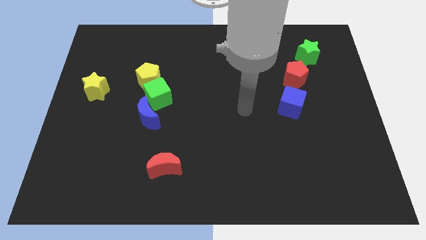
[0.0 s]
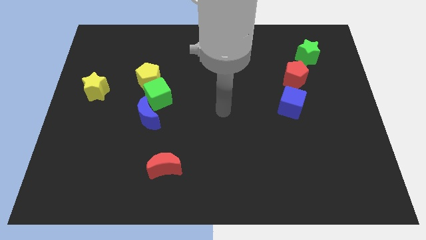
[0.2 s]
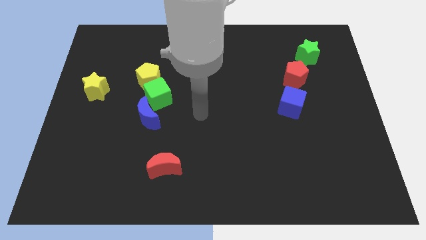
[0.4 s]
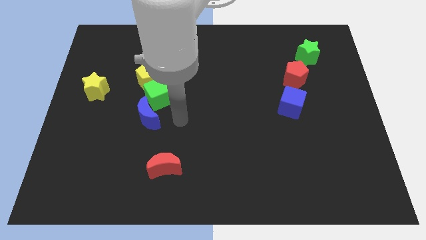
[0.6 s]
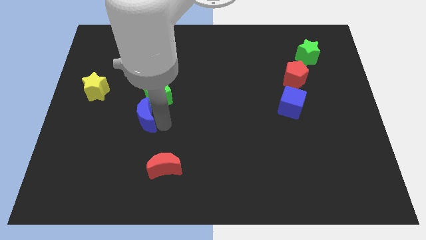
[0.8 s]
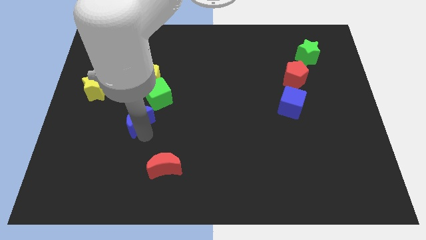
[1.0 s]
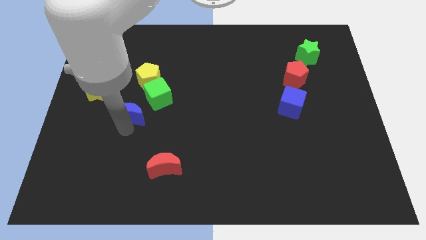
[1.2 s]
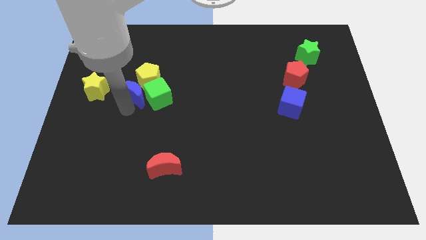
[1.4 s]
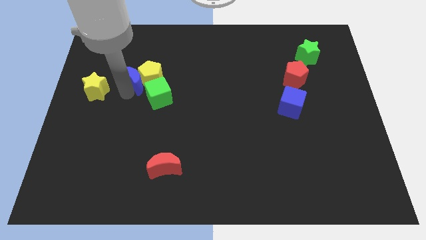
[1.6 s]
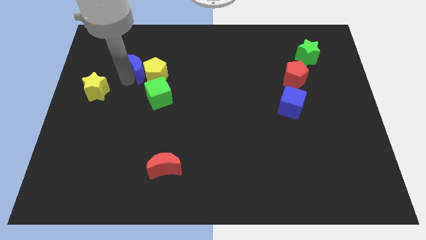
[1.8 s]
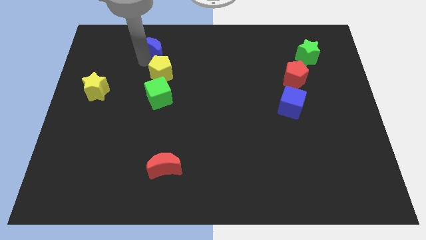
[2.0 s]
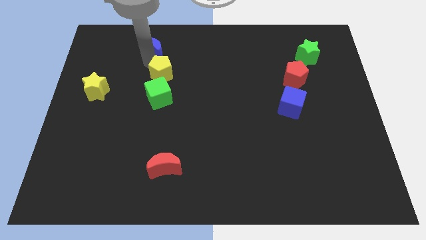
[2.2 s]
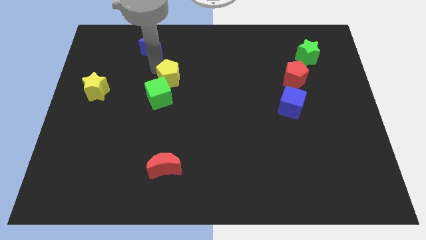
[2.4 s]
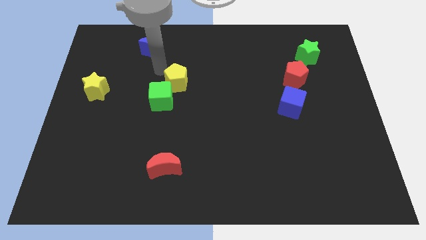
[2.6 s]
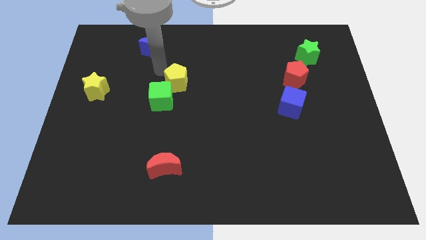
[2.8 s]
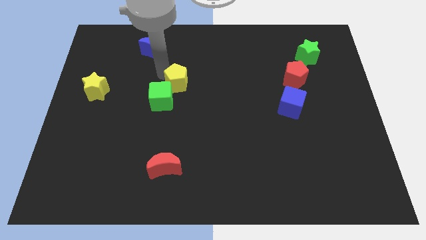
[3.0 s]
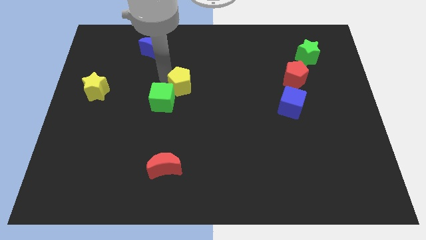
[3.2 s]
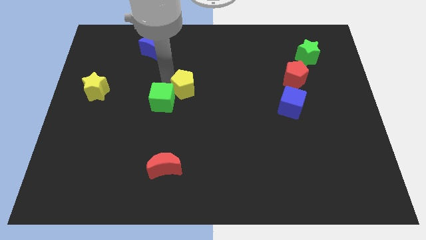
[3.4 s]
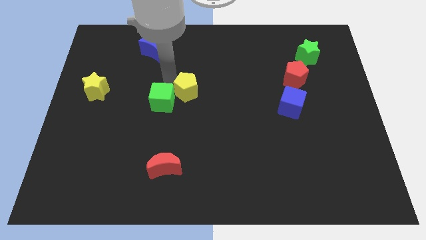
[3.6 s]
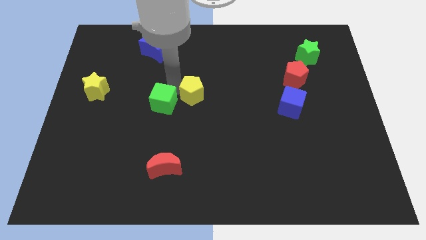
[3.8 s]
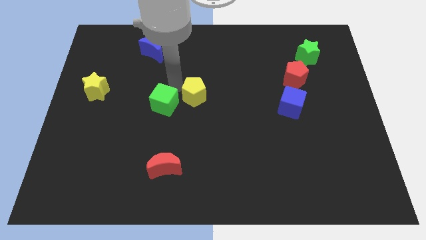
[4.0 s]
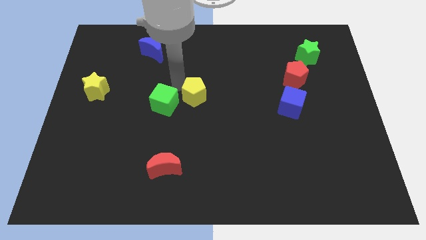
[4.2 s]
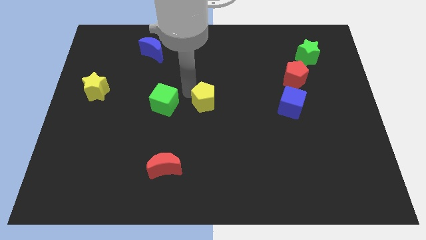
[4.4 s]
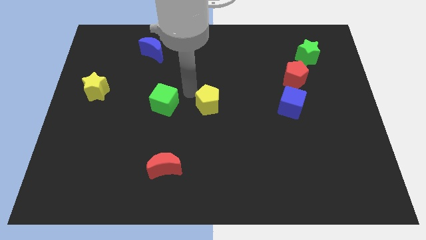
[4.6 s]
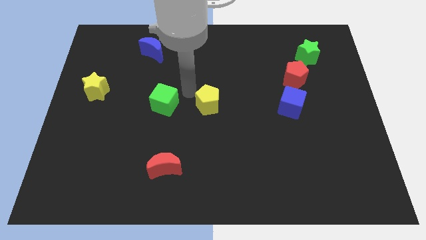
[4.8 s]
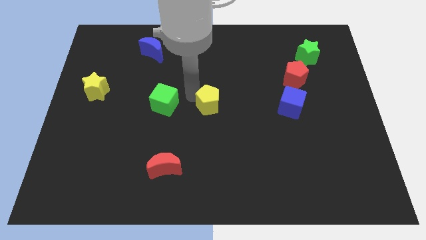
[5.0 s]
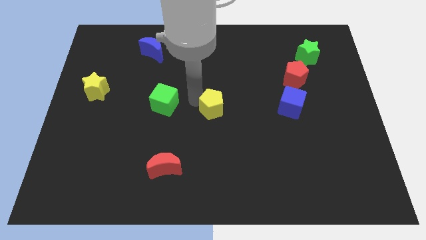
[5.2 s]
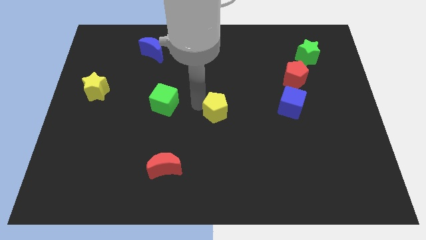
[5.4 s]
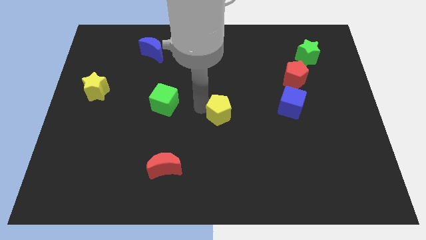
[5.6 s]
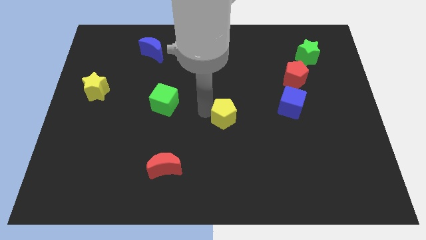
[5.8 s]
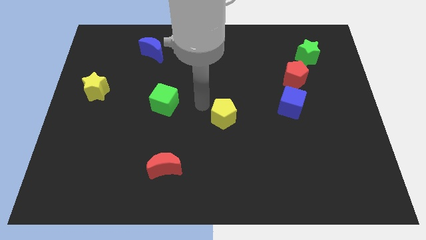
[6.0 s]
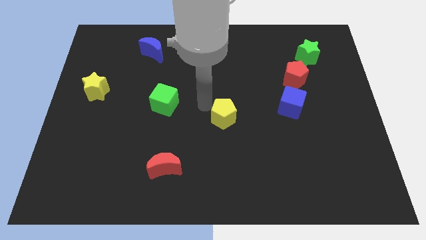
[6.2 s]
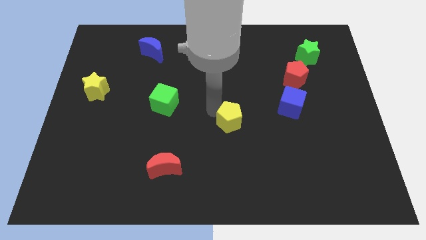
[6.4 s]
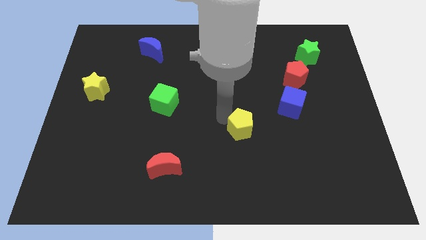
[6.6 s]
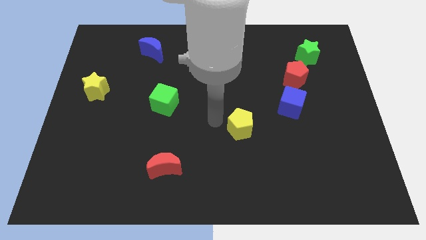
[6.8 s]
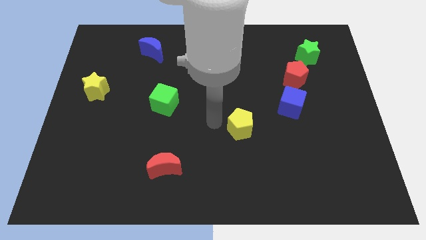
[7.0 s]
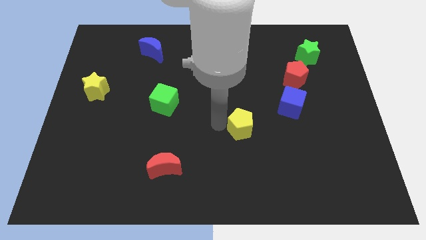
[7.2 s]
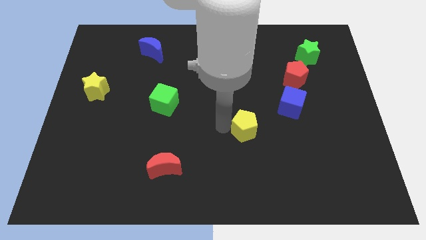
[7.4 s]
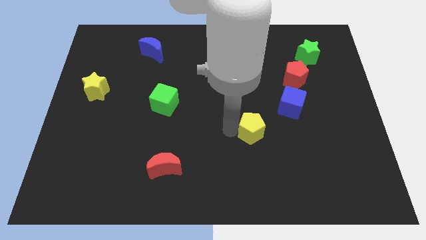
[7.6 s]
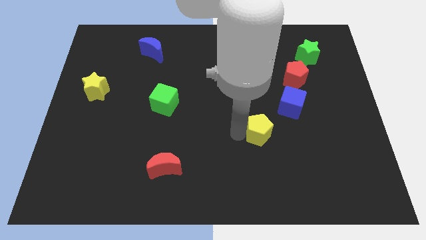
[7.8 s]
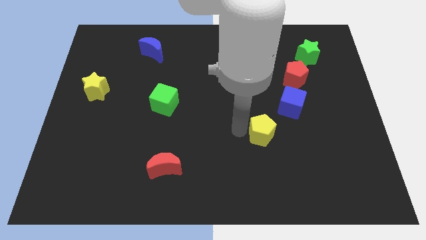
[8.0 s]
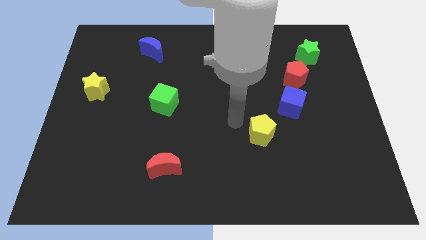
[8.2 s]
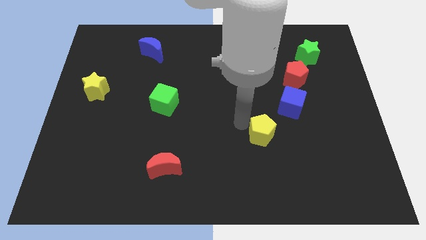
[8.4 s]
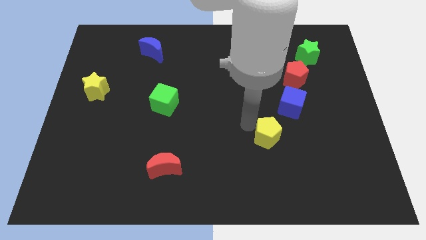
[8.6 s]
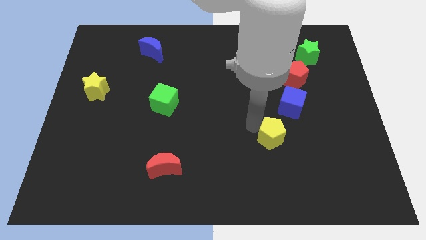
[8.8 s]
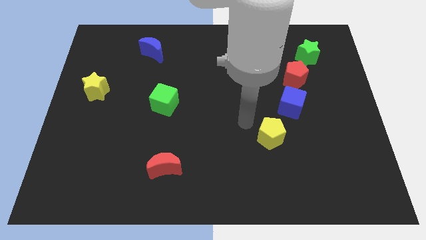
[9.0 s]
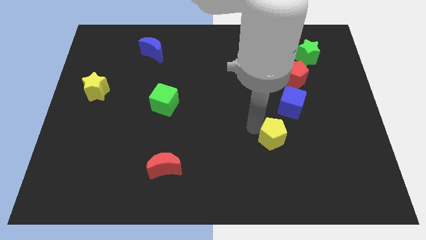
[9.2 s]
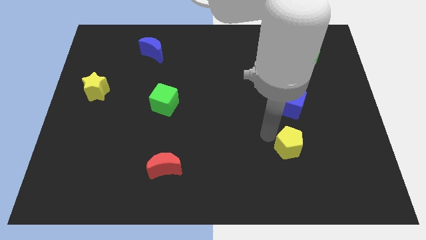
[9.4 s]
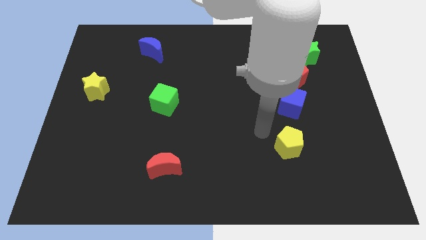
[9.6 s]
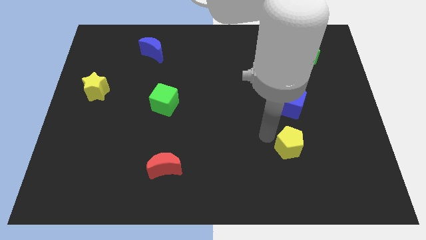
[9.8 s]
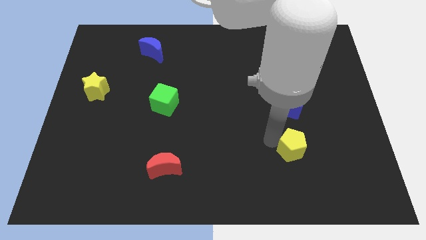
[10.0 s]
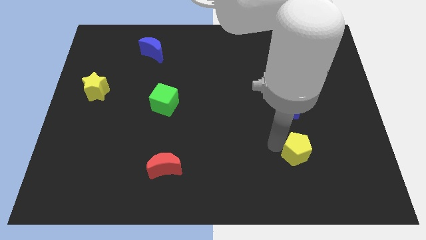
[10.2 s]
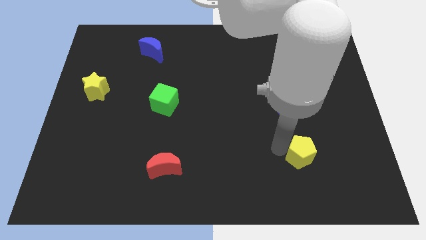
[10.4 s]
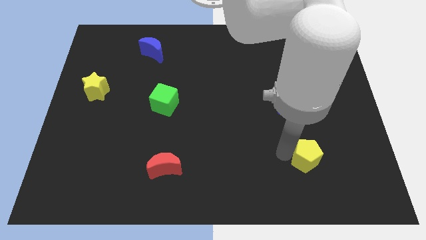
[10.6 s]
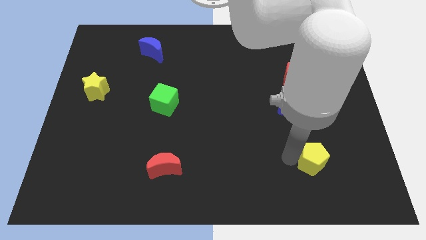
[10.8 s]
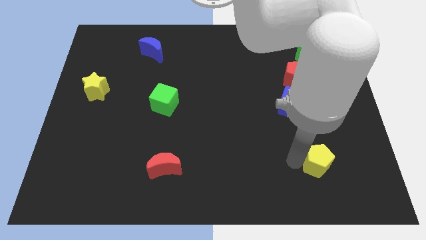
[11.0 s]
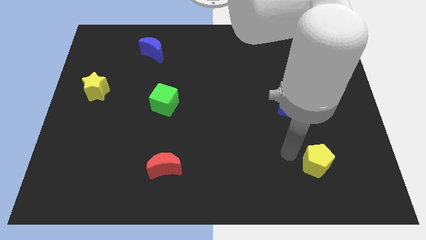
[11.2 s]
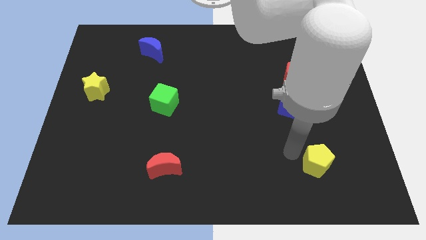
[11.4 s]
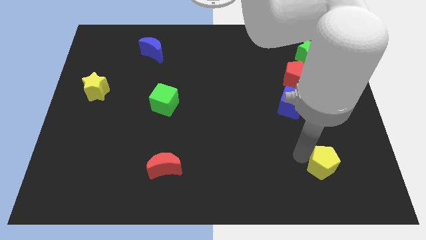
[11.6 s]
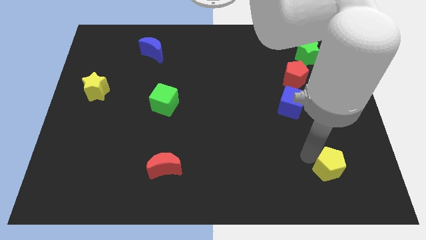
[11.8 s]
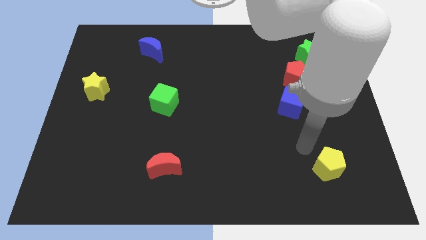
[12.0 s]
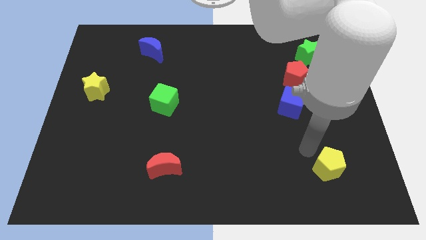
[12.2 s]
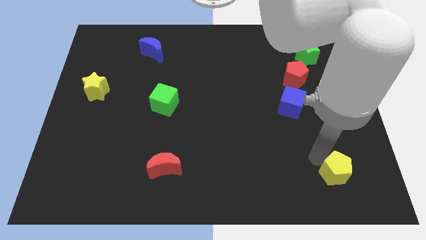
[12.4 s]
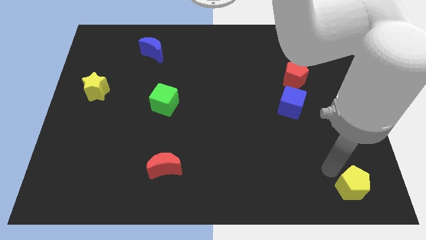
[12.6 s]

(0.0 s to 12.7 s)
slide the yellow pentagon to the bottom right of the board

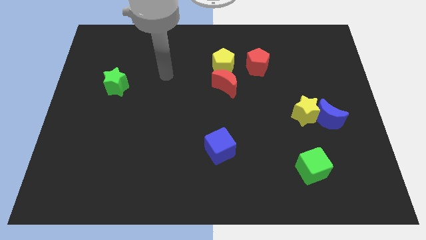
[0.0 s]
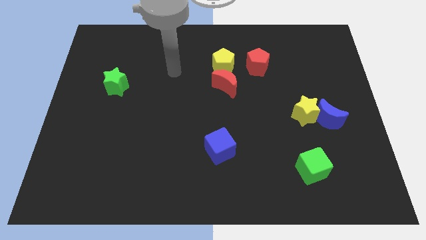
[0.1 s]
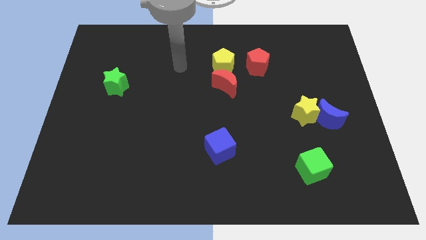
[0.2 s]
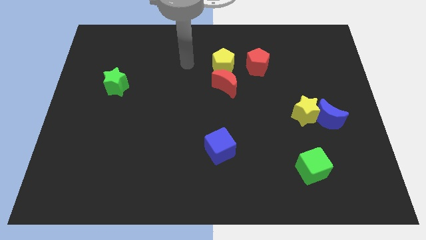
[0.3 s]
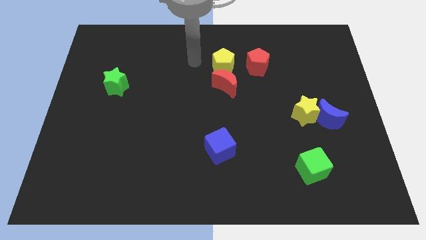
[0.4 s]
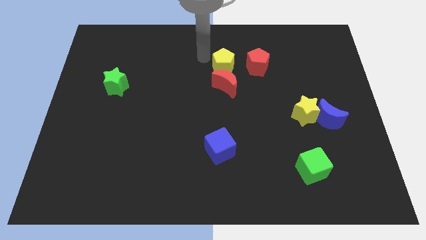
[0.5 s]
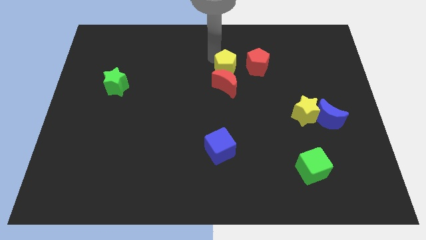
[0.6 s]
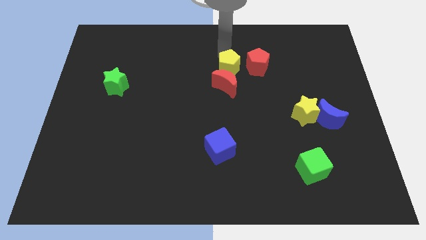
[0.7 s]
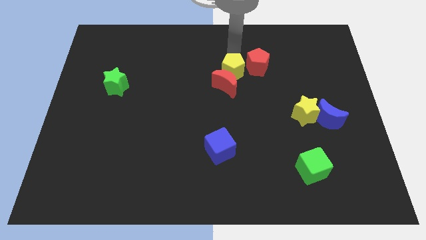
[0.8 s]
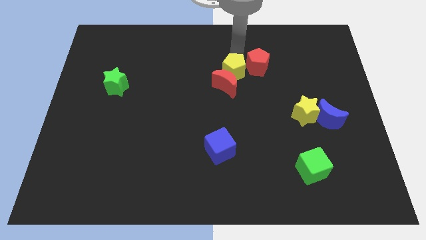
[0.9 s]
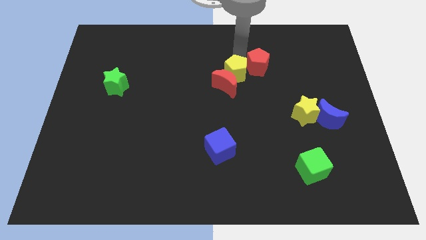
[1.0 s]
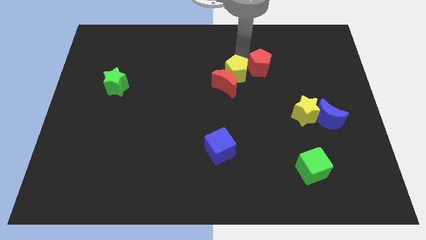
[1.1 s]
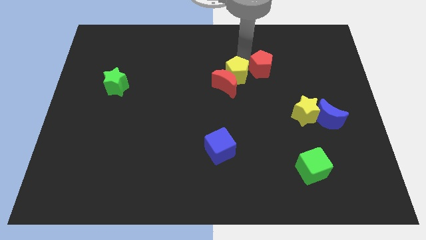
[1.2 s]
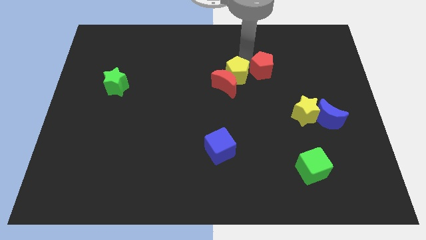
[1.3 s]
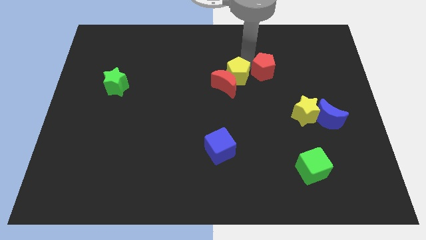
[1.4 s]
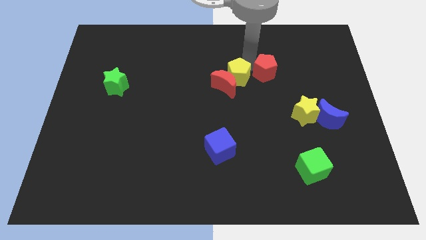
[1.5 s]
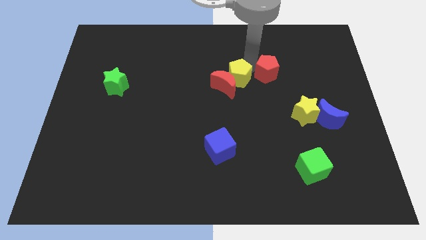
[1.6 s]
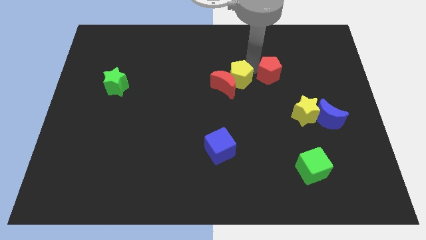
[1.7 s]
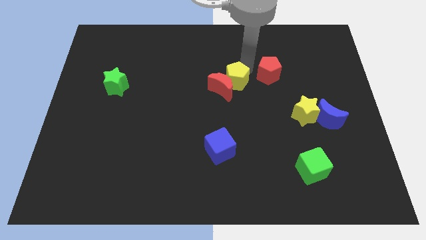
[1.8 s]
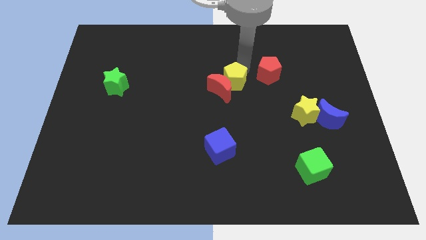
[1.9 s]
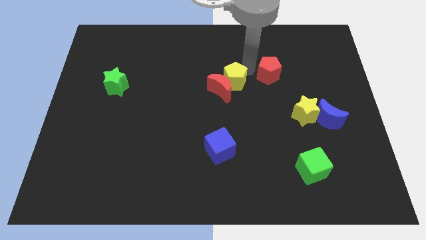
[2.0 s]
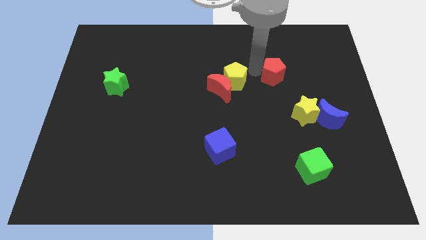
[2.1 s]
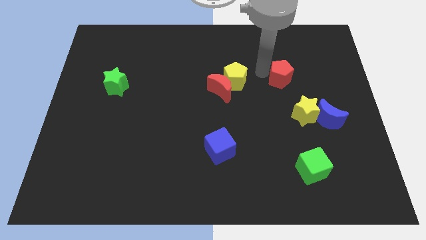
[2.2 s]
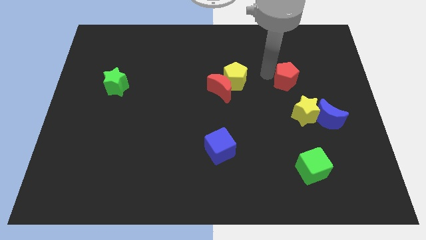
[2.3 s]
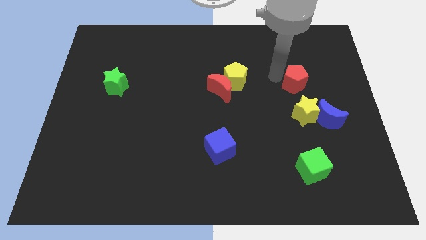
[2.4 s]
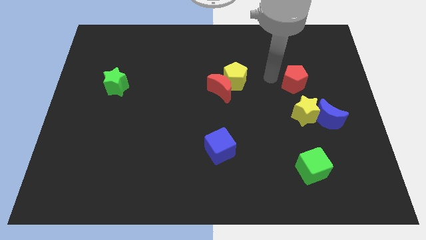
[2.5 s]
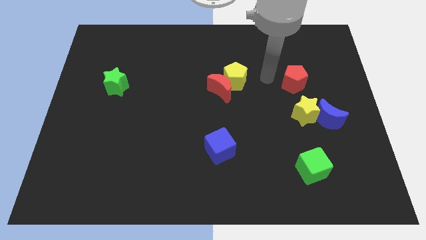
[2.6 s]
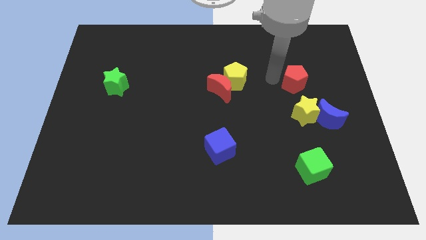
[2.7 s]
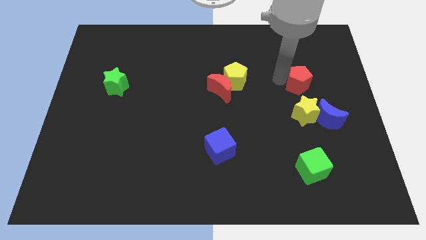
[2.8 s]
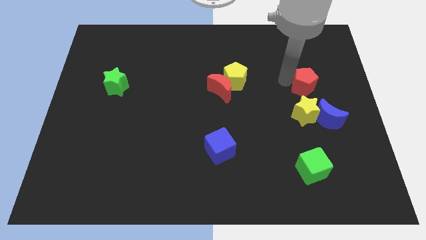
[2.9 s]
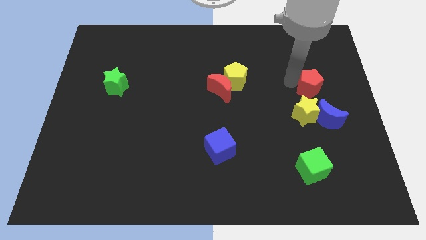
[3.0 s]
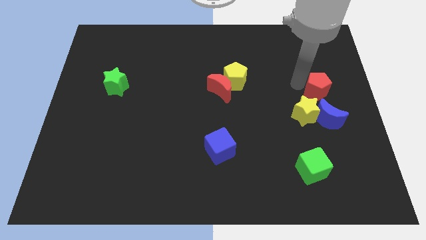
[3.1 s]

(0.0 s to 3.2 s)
put the red pentagon to the right side
